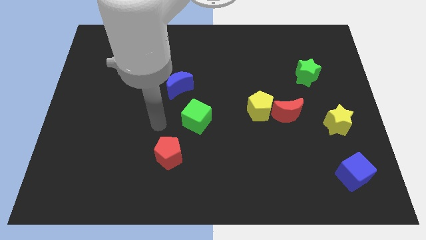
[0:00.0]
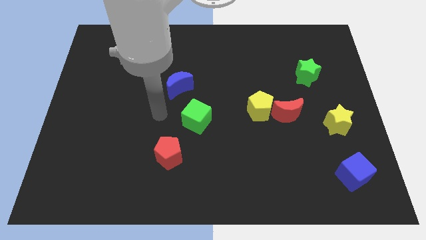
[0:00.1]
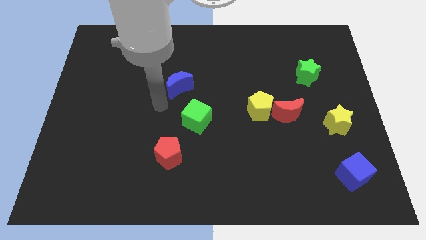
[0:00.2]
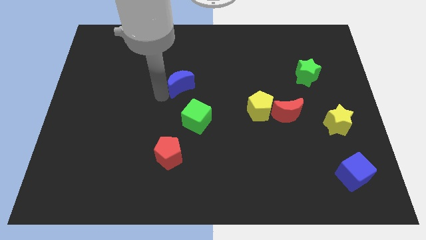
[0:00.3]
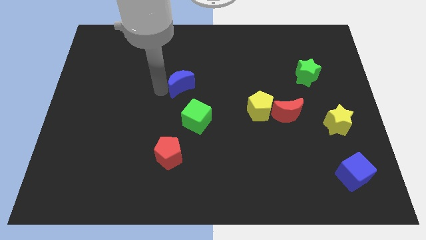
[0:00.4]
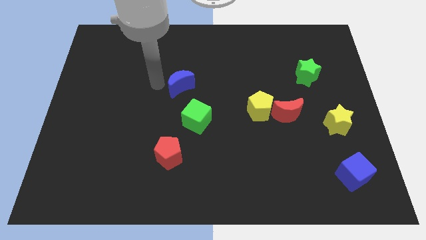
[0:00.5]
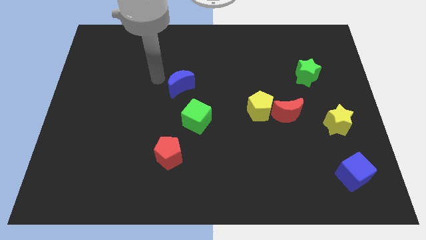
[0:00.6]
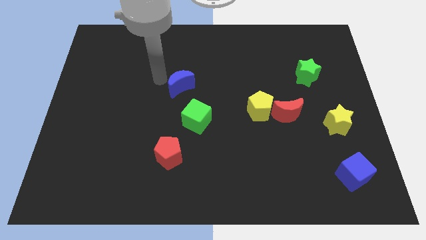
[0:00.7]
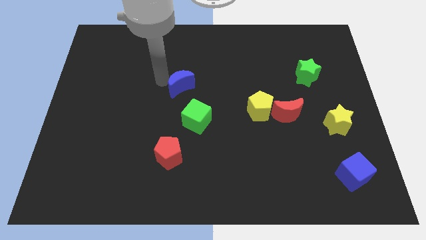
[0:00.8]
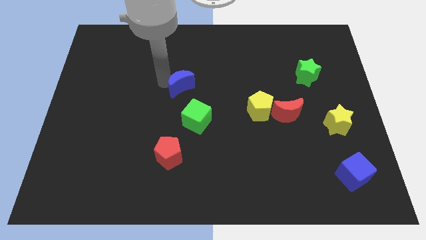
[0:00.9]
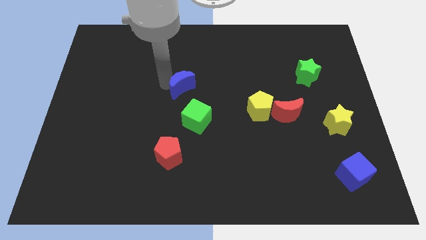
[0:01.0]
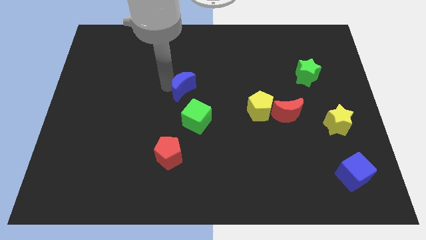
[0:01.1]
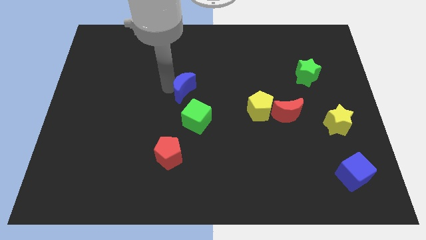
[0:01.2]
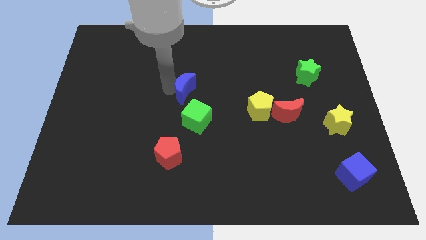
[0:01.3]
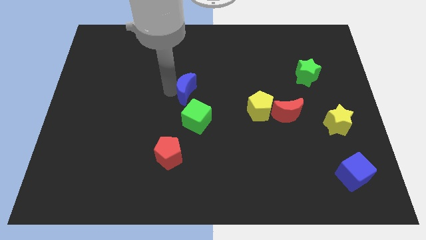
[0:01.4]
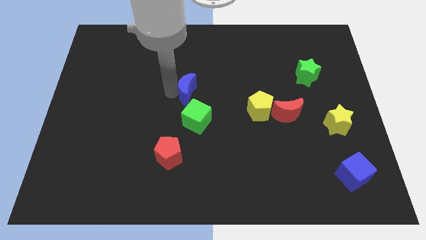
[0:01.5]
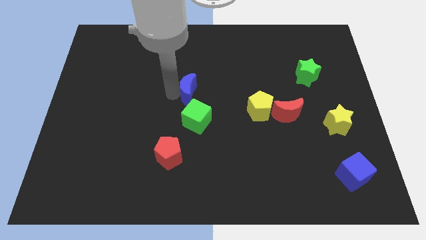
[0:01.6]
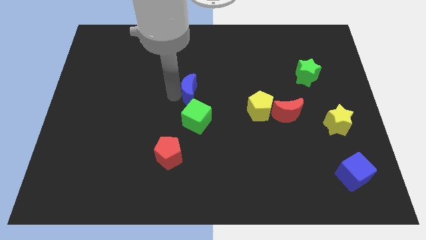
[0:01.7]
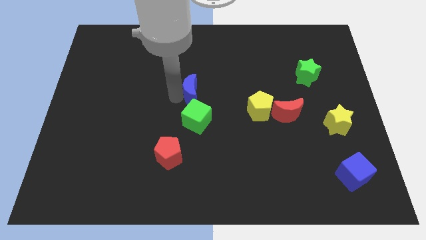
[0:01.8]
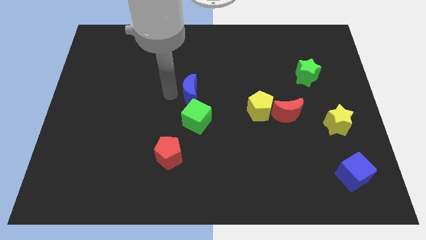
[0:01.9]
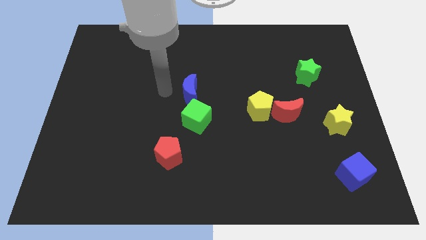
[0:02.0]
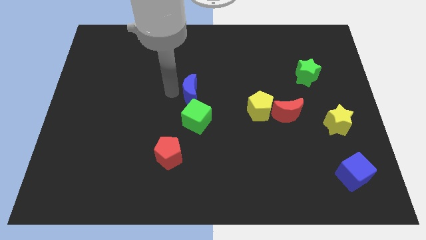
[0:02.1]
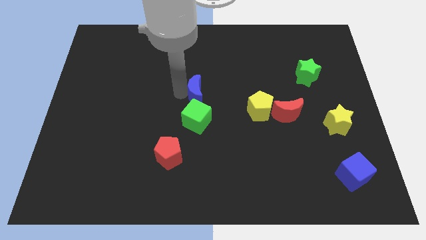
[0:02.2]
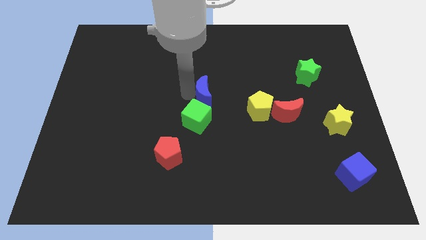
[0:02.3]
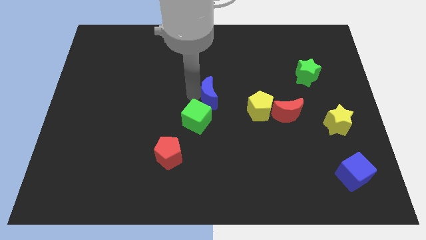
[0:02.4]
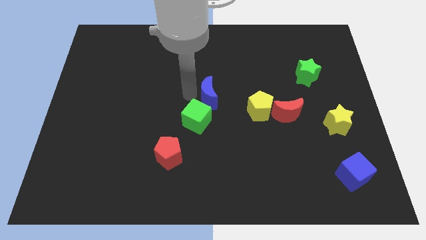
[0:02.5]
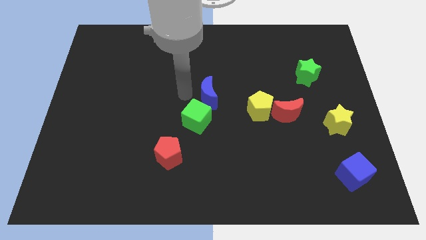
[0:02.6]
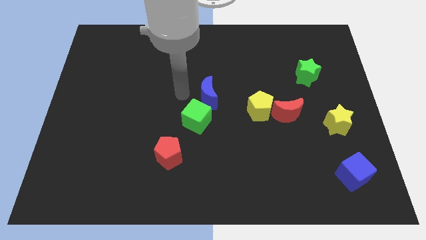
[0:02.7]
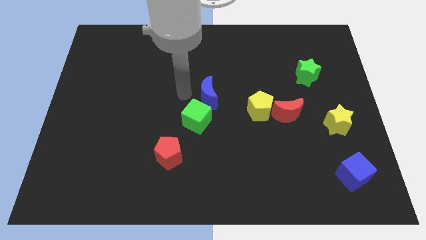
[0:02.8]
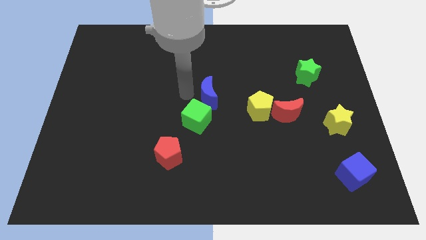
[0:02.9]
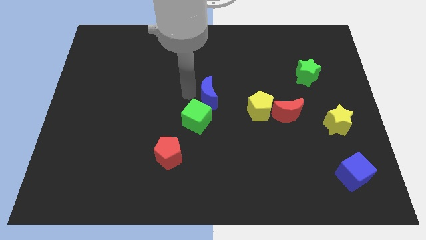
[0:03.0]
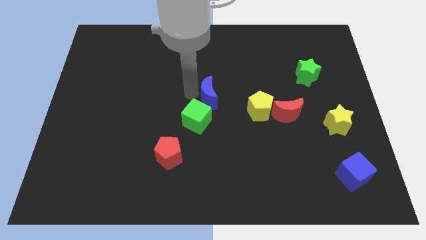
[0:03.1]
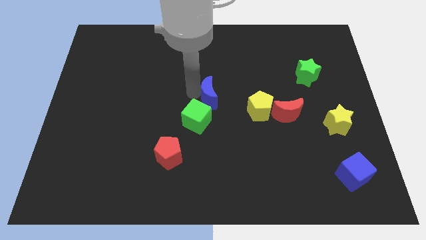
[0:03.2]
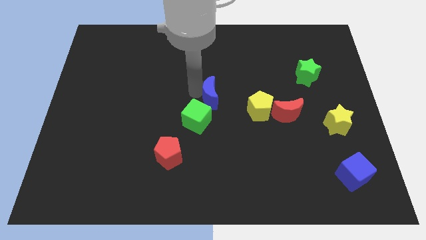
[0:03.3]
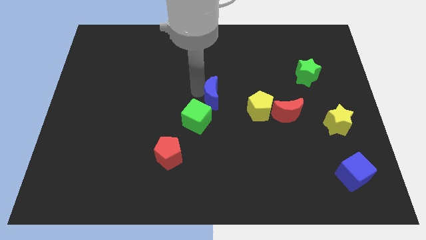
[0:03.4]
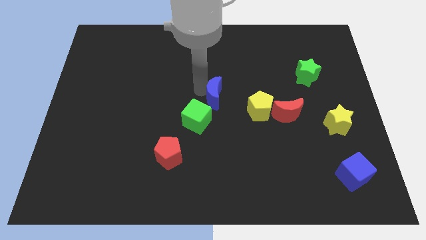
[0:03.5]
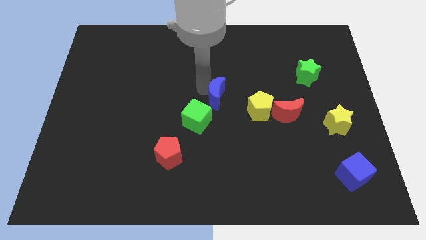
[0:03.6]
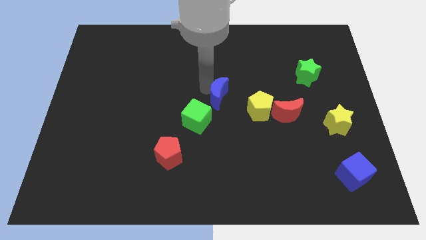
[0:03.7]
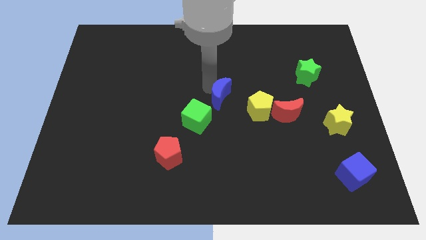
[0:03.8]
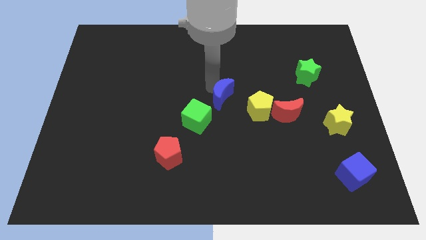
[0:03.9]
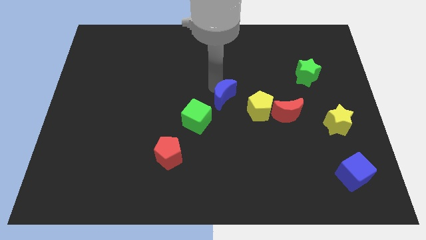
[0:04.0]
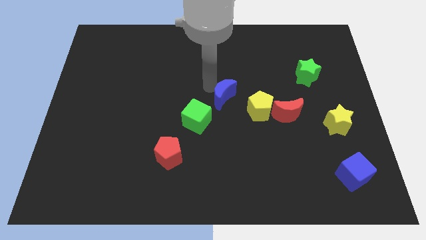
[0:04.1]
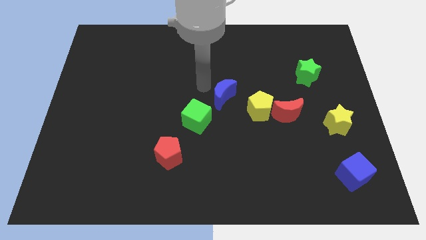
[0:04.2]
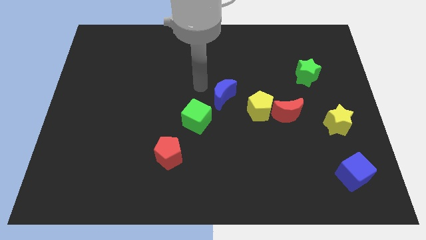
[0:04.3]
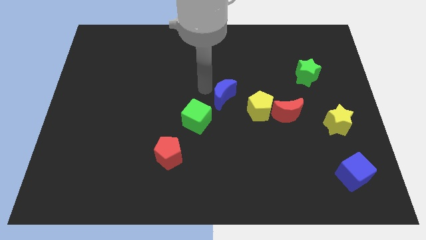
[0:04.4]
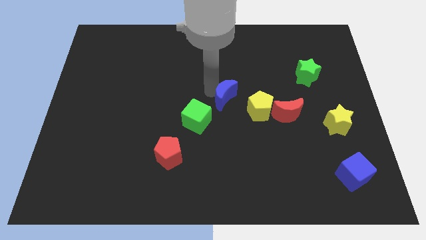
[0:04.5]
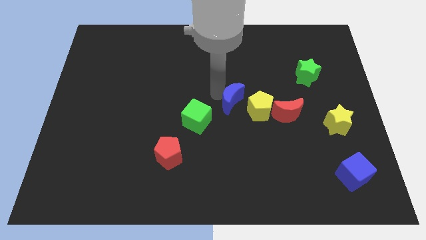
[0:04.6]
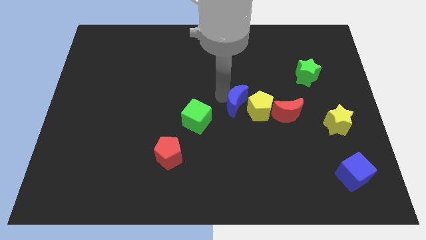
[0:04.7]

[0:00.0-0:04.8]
put the blue moon to the yellow pentagon

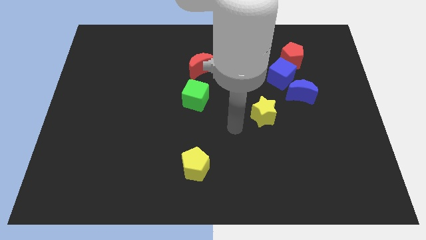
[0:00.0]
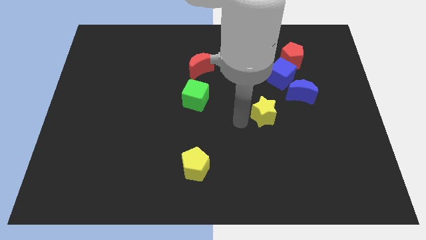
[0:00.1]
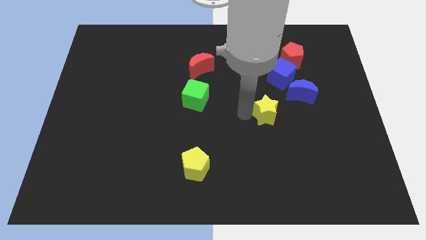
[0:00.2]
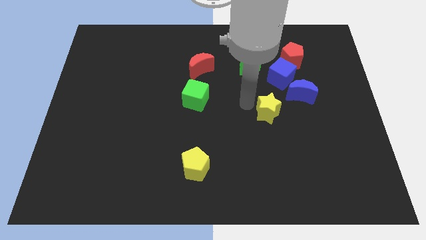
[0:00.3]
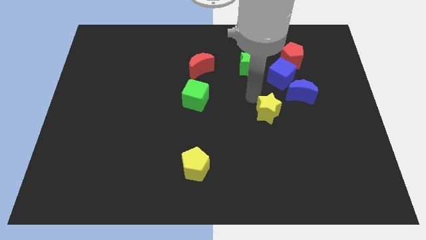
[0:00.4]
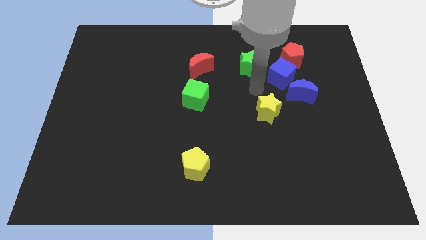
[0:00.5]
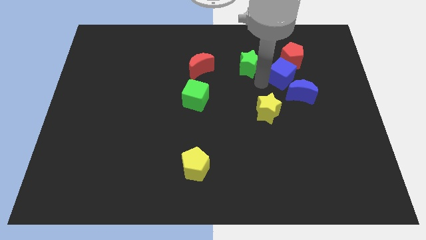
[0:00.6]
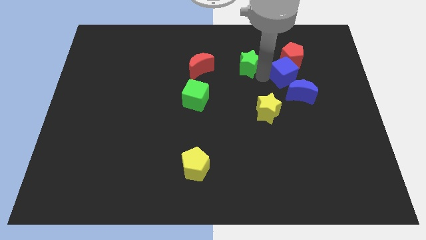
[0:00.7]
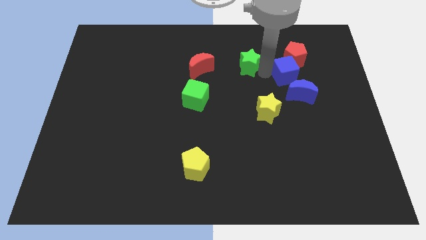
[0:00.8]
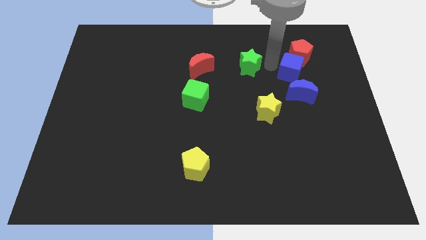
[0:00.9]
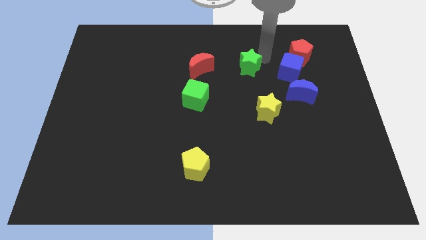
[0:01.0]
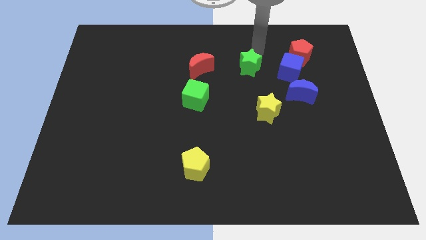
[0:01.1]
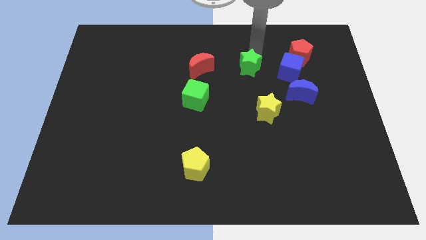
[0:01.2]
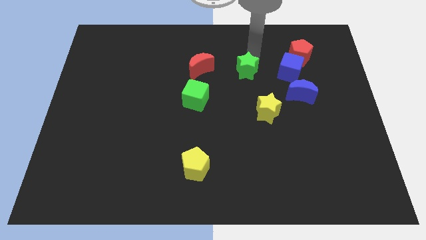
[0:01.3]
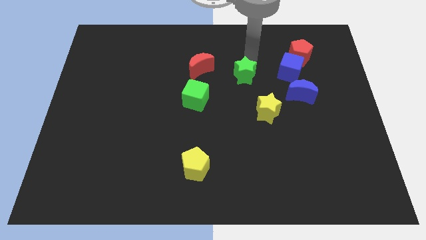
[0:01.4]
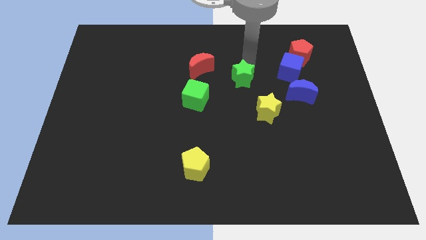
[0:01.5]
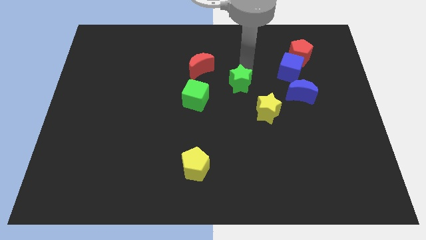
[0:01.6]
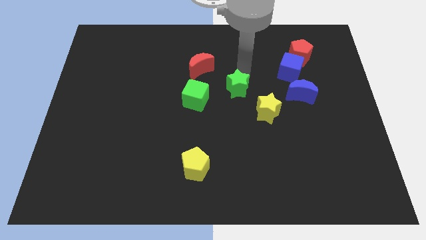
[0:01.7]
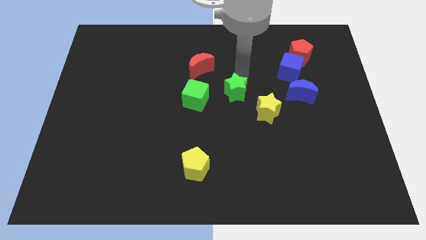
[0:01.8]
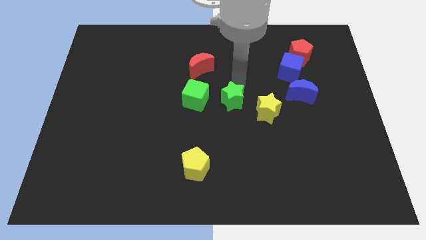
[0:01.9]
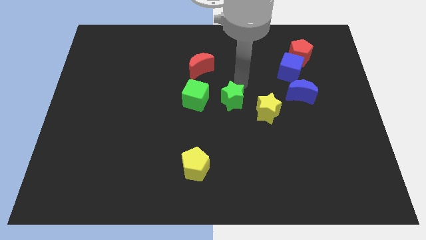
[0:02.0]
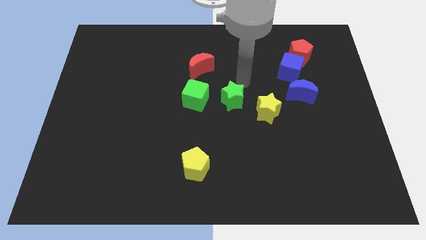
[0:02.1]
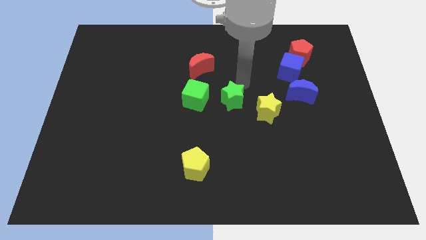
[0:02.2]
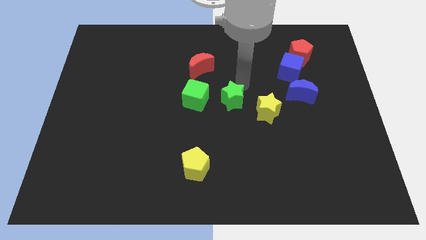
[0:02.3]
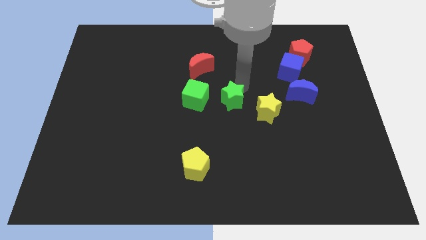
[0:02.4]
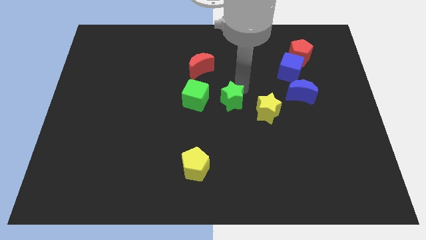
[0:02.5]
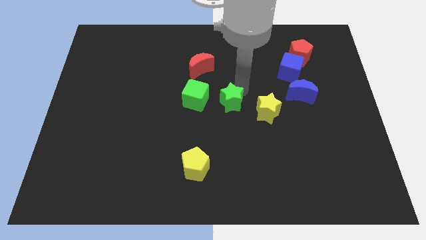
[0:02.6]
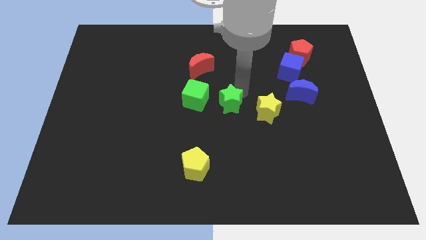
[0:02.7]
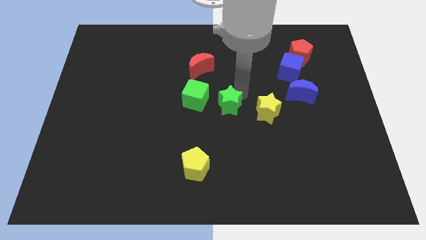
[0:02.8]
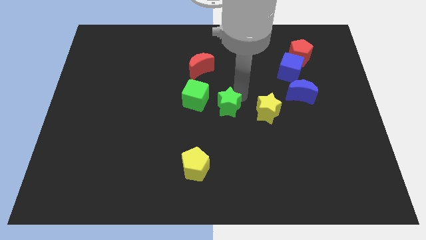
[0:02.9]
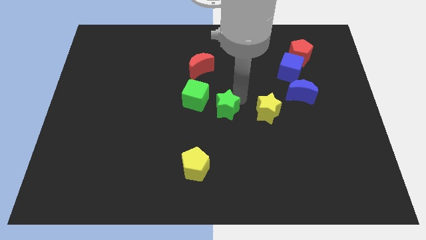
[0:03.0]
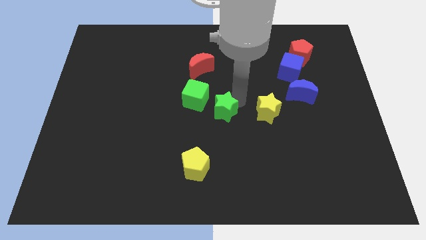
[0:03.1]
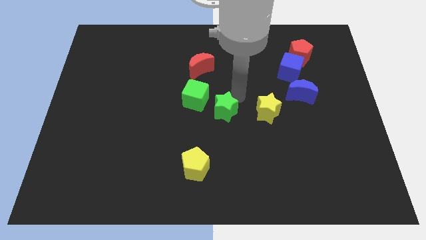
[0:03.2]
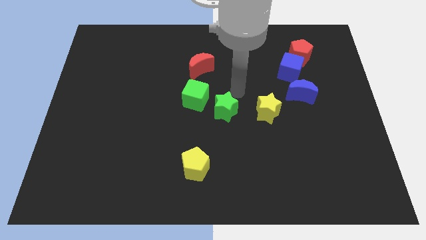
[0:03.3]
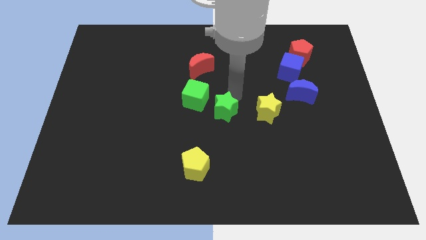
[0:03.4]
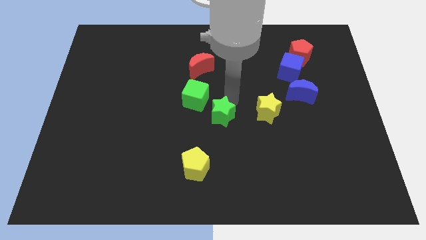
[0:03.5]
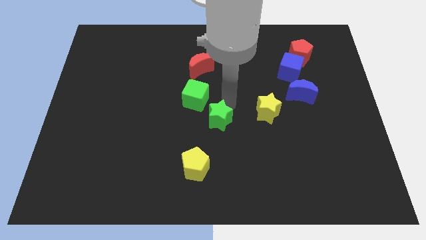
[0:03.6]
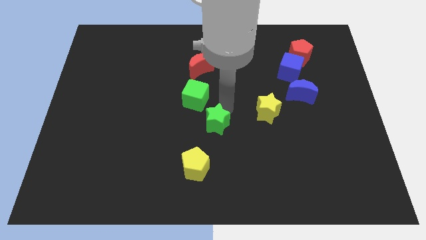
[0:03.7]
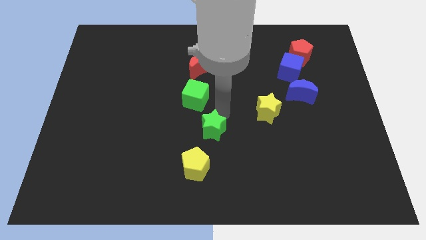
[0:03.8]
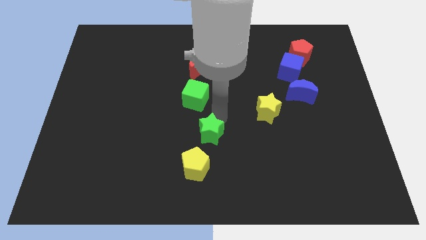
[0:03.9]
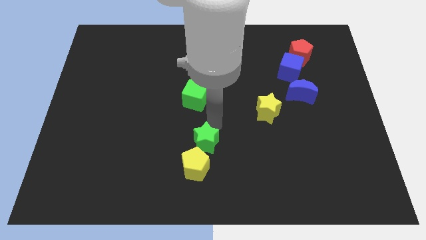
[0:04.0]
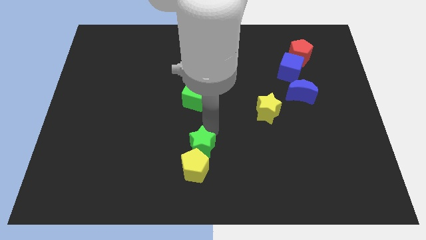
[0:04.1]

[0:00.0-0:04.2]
move the green star towards the yellow pentagon
